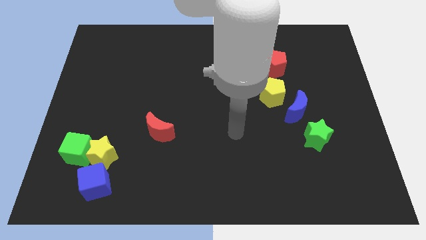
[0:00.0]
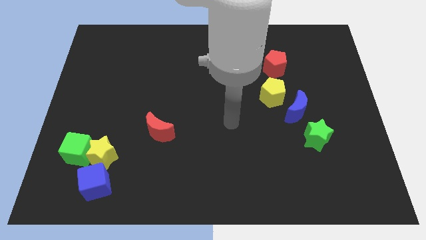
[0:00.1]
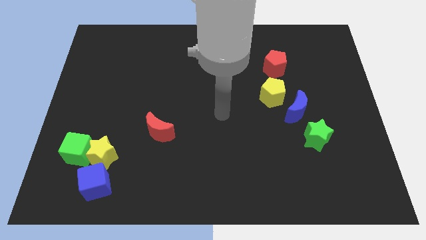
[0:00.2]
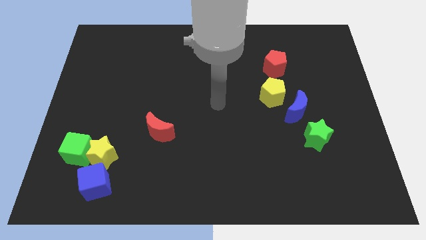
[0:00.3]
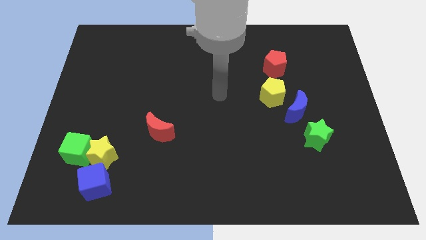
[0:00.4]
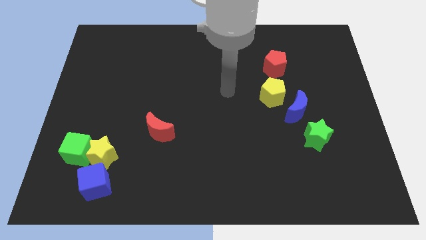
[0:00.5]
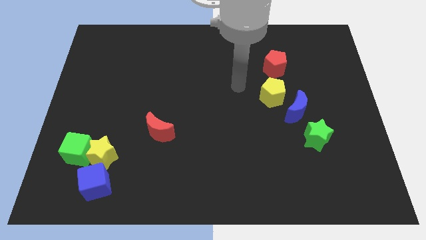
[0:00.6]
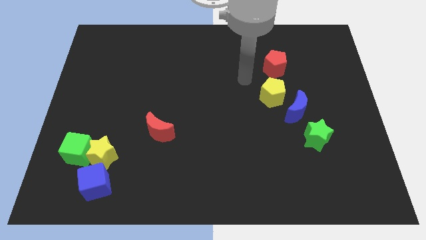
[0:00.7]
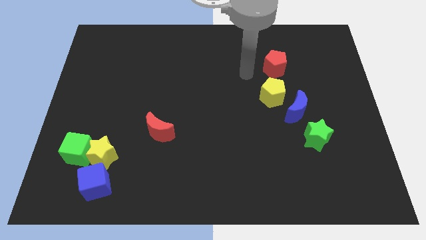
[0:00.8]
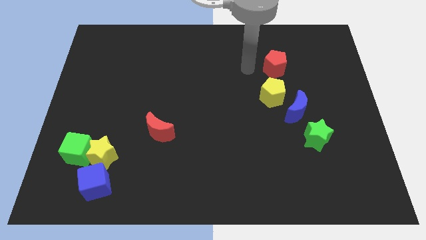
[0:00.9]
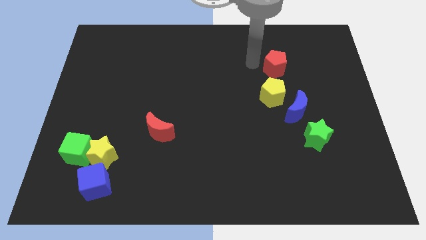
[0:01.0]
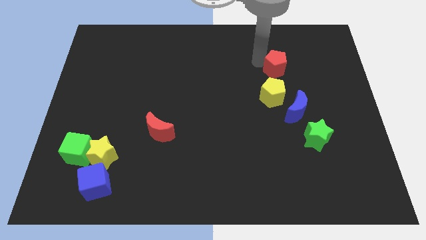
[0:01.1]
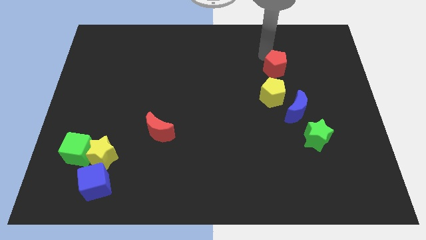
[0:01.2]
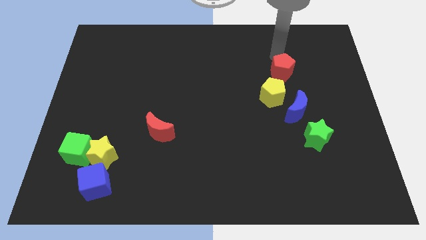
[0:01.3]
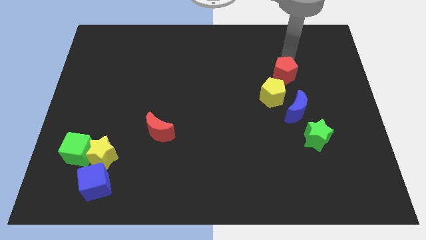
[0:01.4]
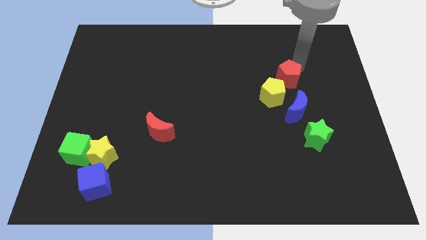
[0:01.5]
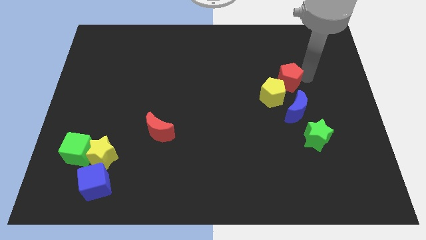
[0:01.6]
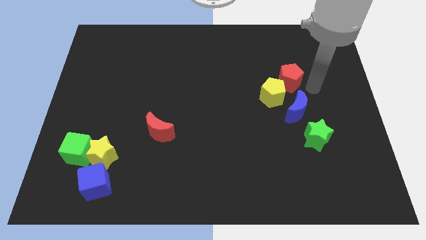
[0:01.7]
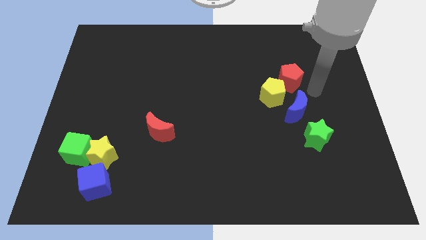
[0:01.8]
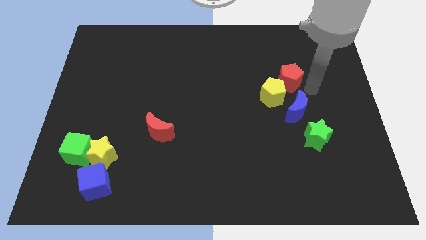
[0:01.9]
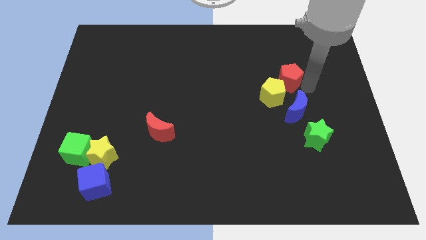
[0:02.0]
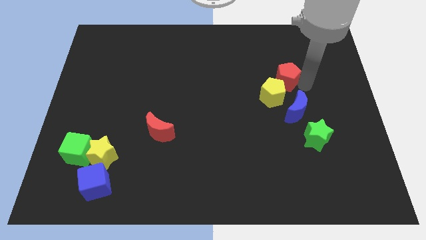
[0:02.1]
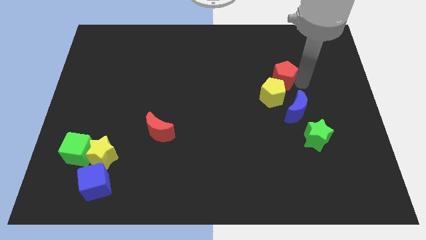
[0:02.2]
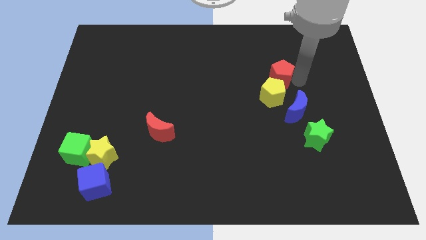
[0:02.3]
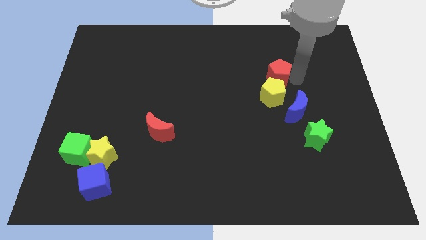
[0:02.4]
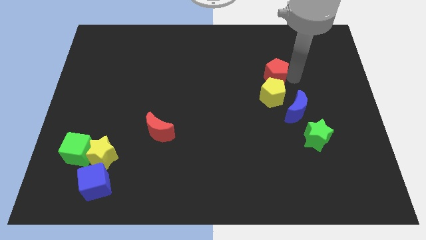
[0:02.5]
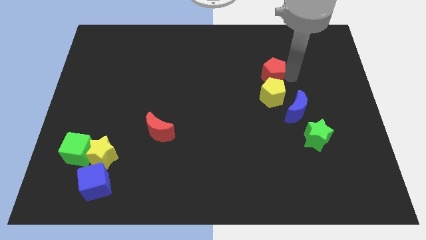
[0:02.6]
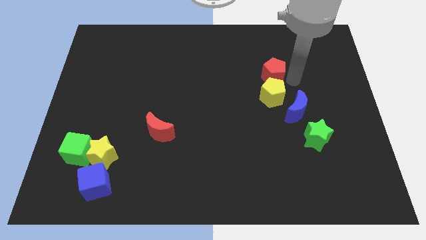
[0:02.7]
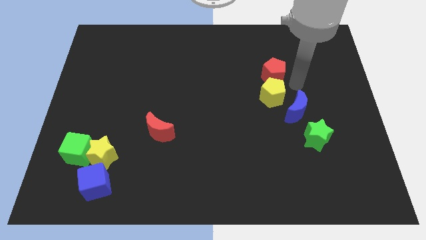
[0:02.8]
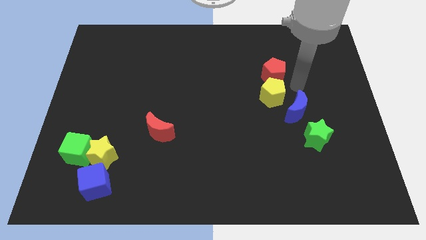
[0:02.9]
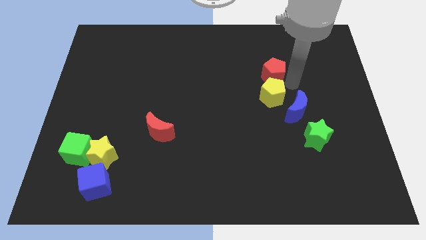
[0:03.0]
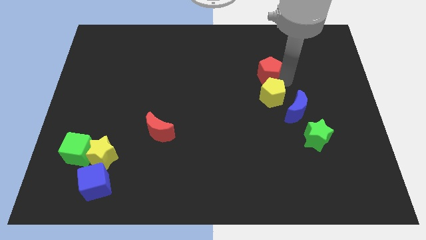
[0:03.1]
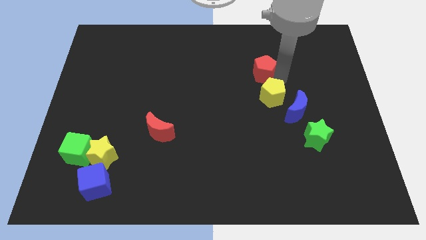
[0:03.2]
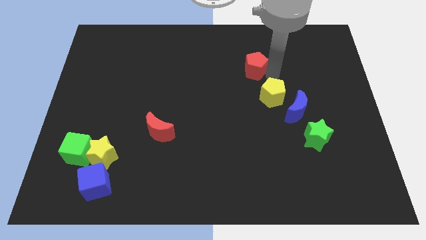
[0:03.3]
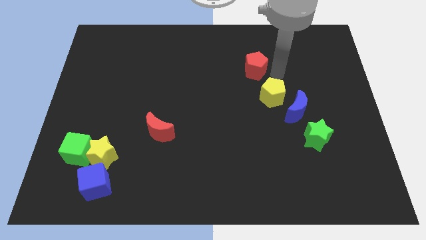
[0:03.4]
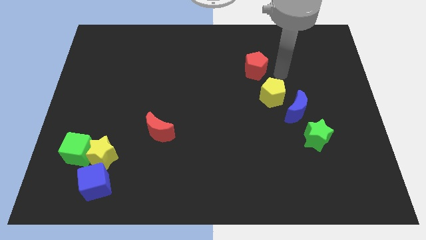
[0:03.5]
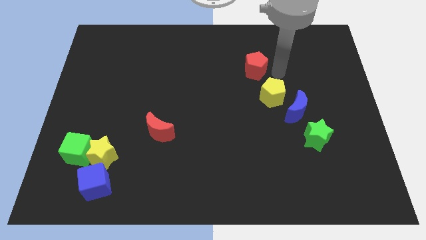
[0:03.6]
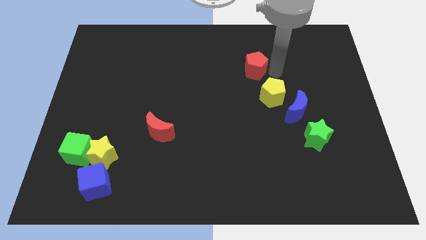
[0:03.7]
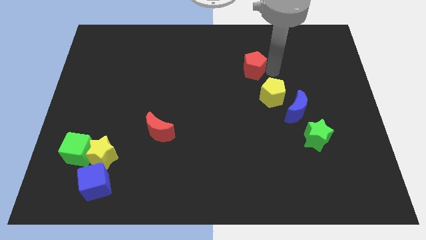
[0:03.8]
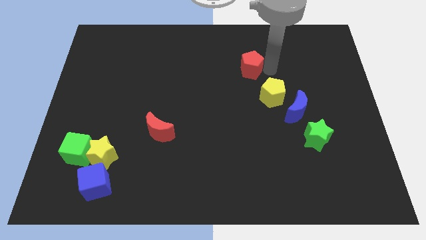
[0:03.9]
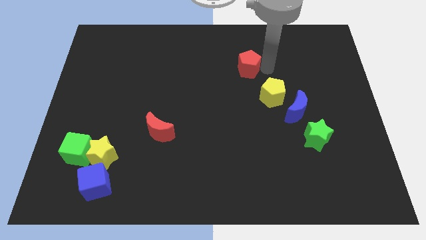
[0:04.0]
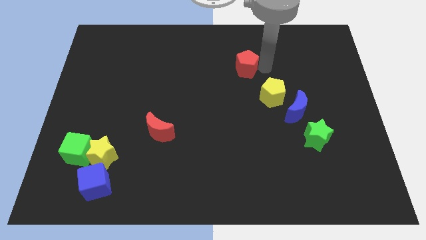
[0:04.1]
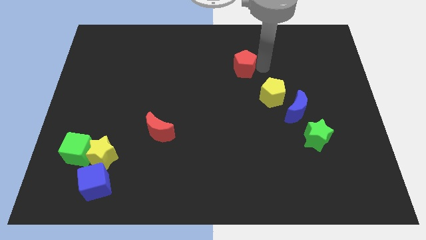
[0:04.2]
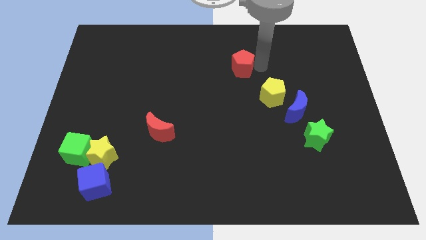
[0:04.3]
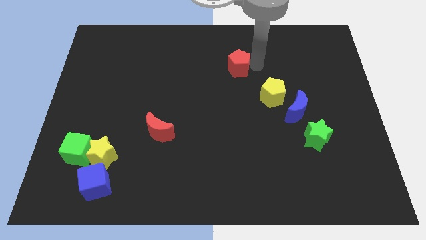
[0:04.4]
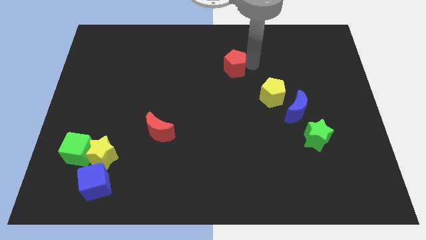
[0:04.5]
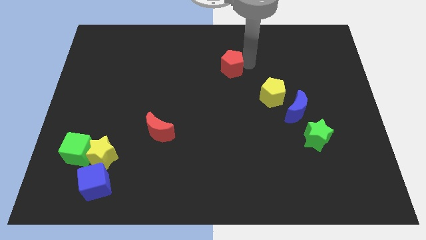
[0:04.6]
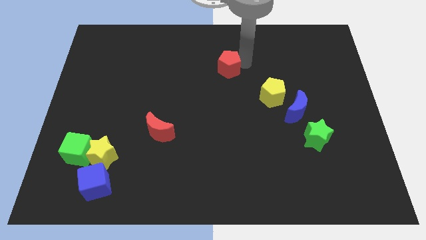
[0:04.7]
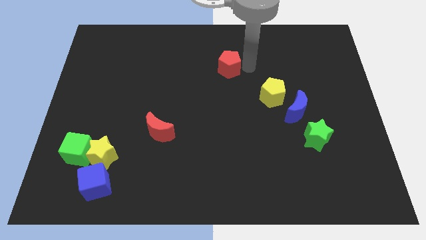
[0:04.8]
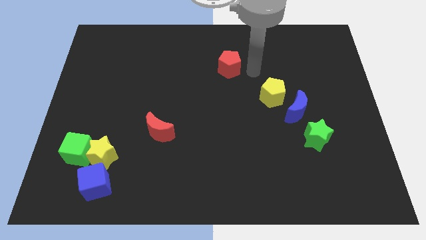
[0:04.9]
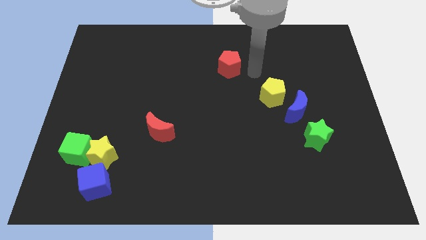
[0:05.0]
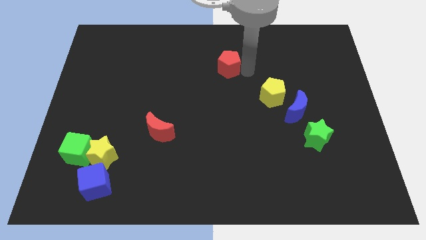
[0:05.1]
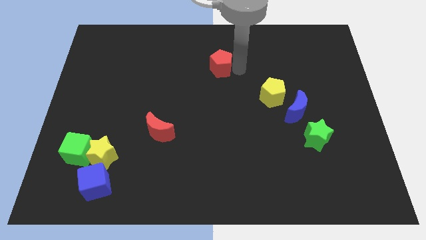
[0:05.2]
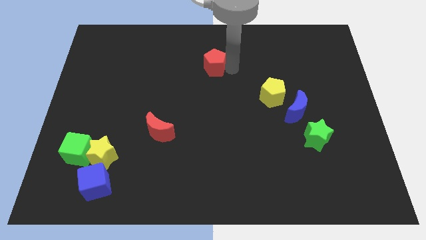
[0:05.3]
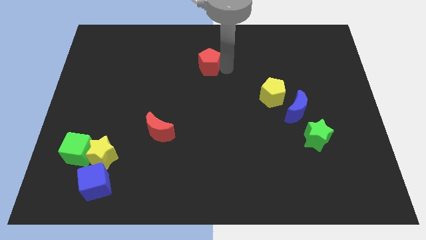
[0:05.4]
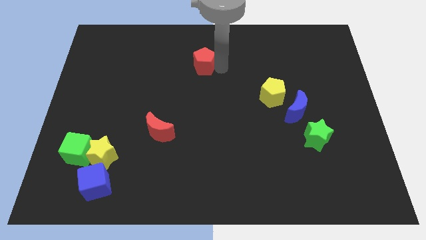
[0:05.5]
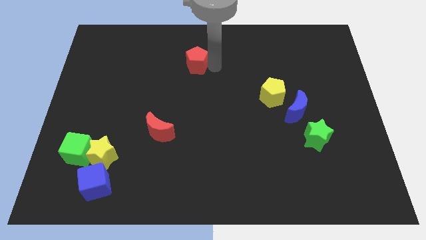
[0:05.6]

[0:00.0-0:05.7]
move the red pentagon to the left

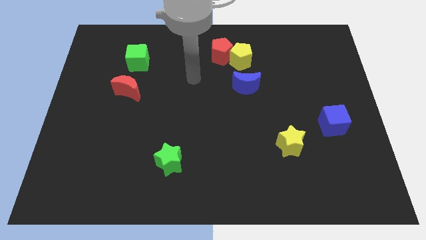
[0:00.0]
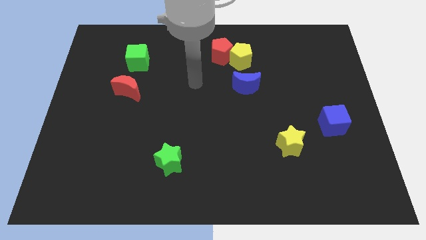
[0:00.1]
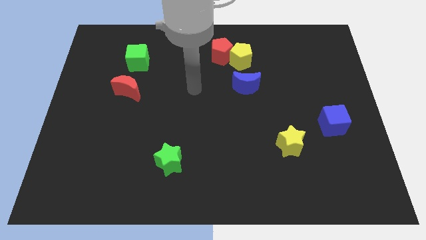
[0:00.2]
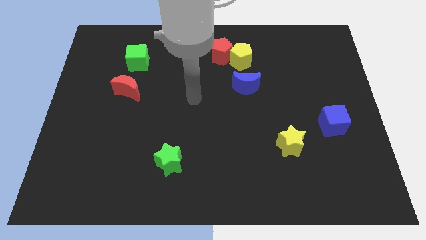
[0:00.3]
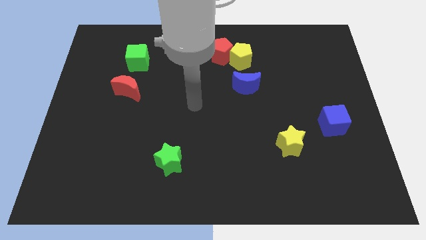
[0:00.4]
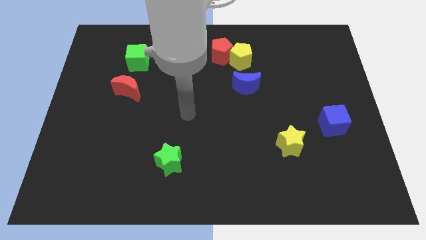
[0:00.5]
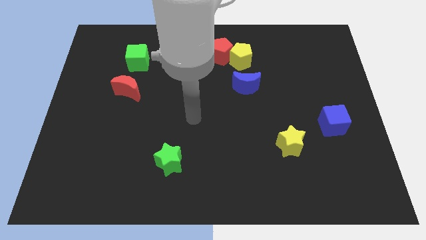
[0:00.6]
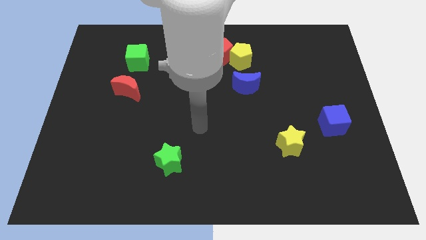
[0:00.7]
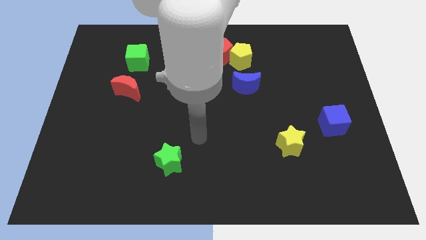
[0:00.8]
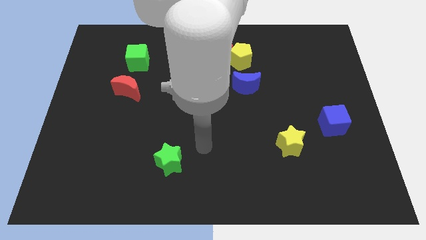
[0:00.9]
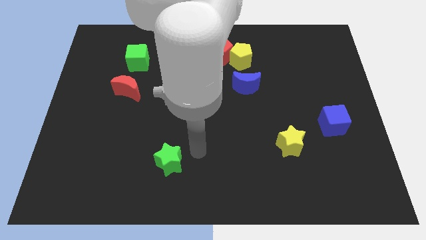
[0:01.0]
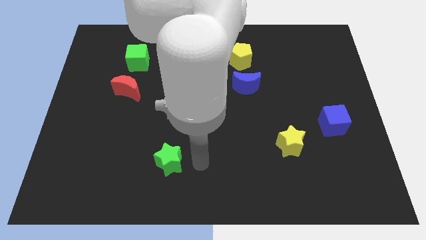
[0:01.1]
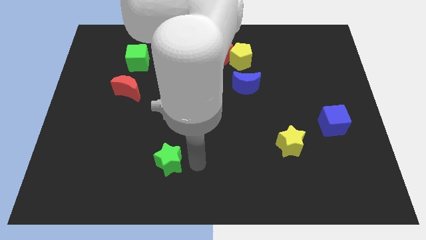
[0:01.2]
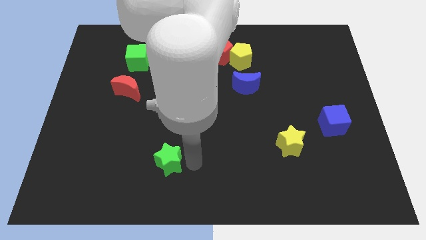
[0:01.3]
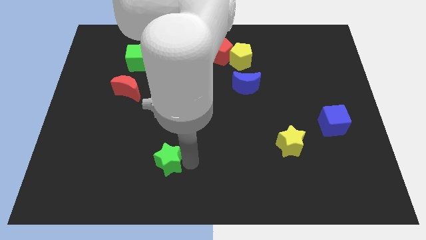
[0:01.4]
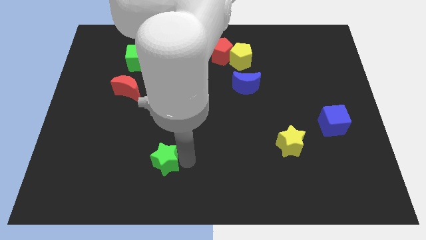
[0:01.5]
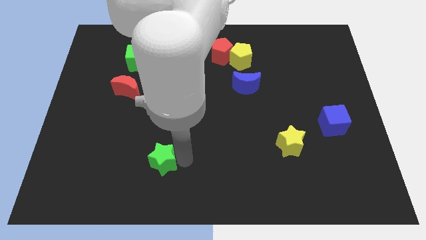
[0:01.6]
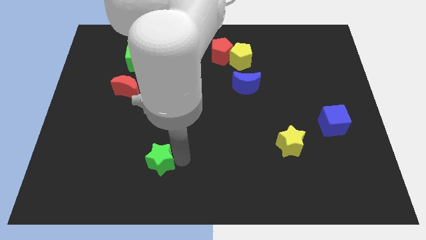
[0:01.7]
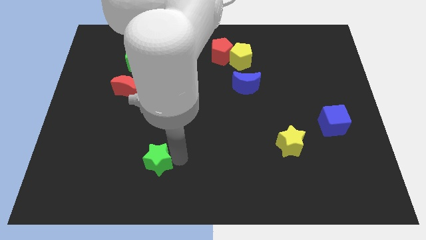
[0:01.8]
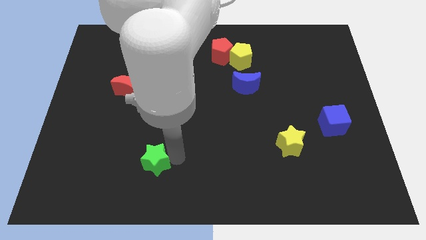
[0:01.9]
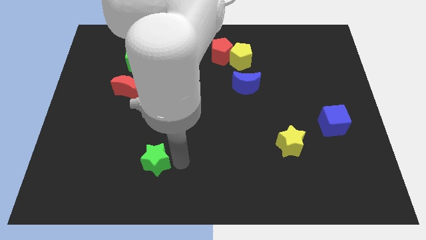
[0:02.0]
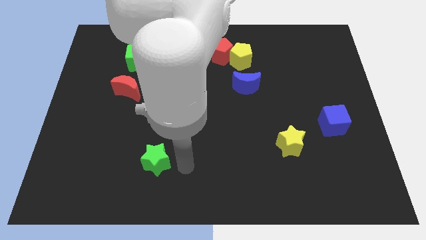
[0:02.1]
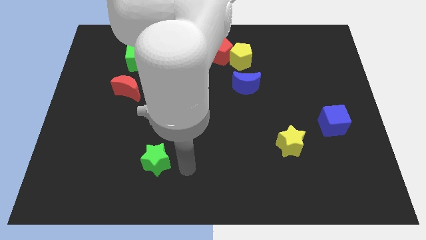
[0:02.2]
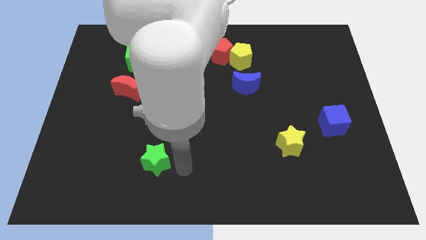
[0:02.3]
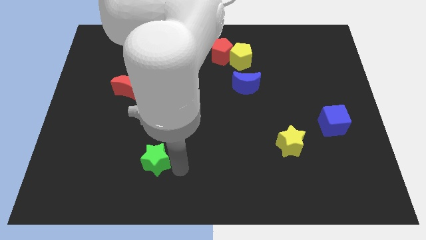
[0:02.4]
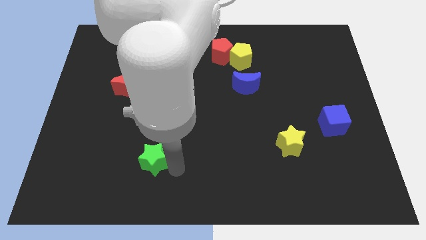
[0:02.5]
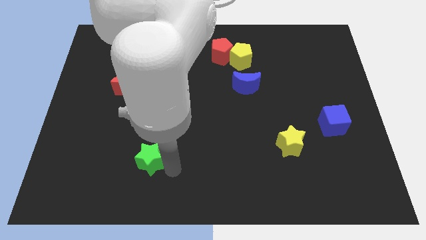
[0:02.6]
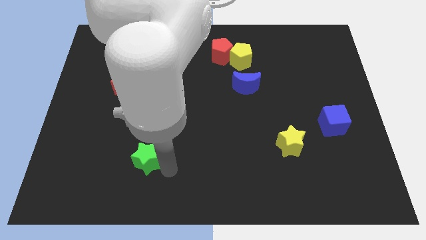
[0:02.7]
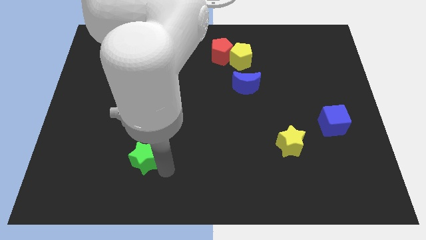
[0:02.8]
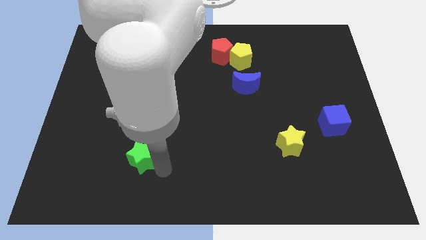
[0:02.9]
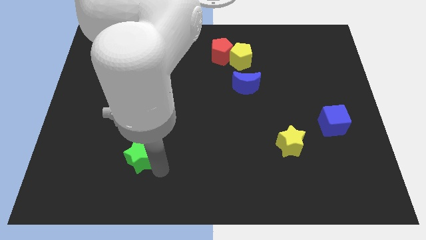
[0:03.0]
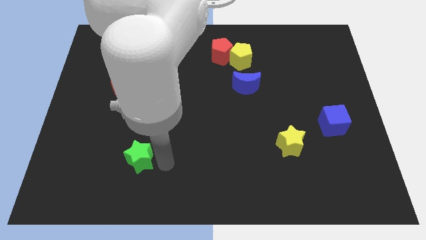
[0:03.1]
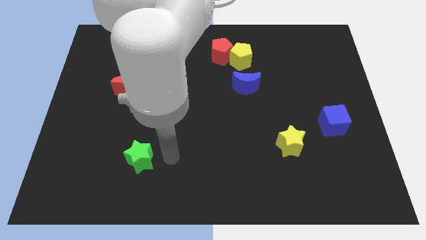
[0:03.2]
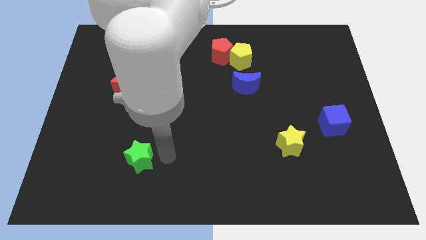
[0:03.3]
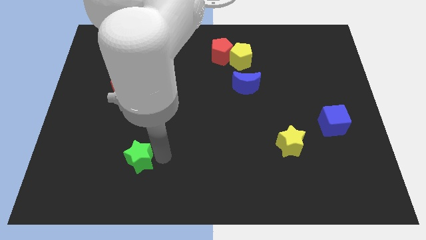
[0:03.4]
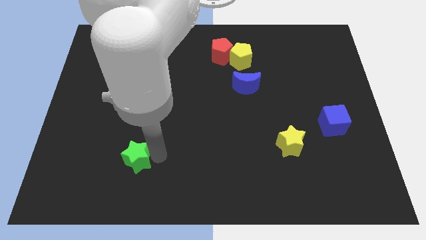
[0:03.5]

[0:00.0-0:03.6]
slightly slide the green star left
